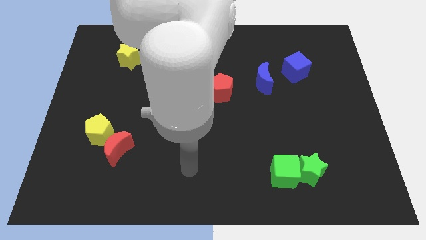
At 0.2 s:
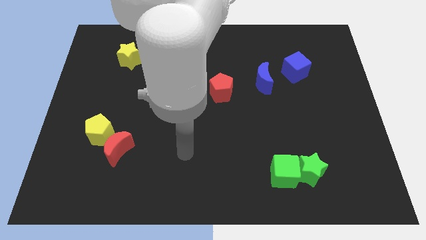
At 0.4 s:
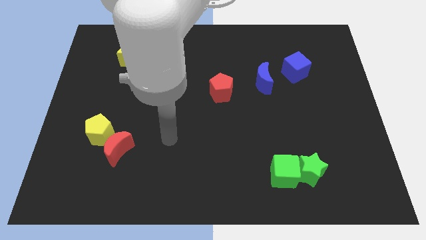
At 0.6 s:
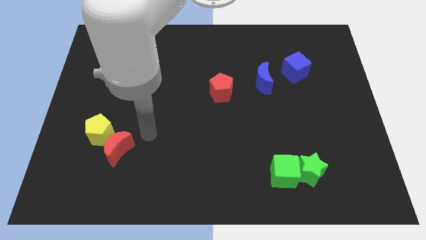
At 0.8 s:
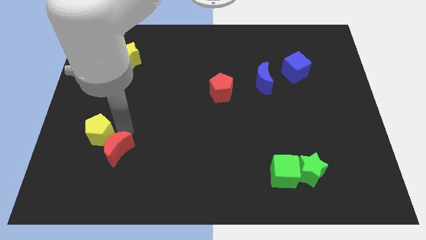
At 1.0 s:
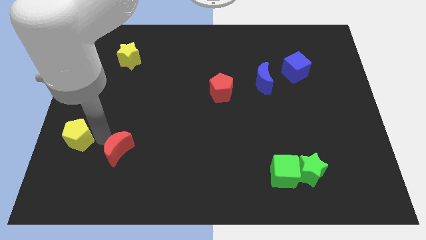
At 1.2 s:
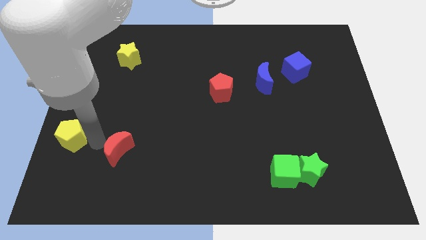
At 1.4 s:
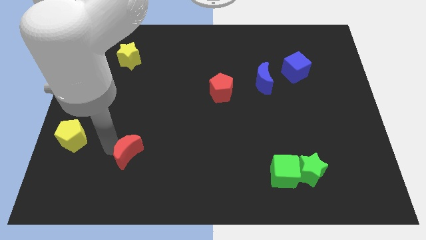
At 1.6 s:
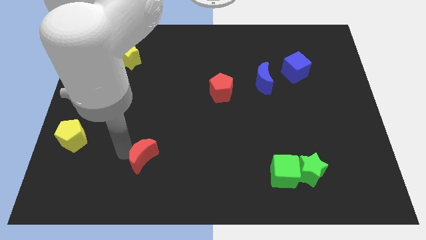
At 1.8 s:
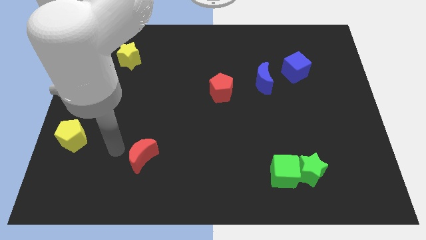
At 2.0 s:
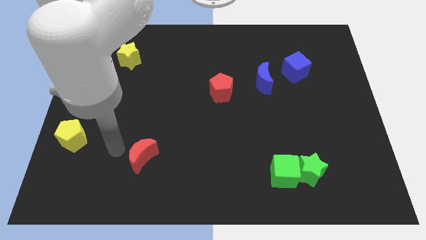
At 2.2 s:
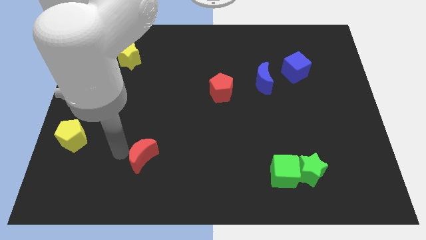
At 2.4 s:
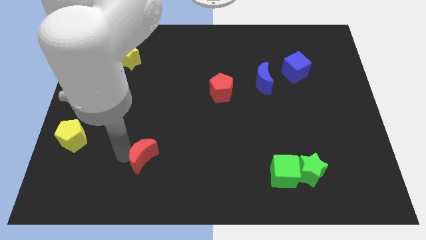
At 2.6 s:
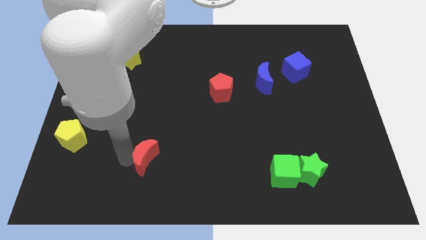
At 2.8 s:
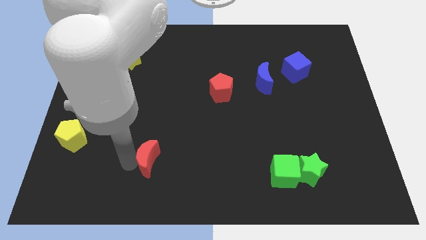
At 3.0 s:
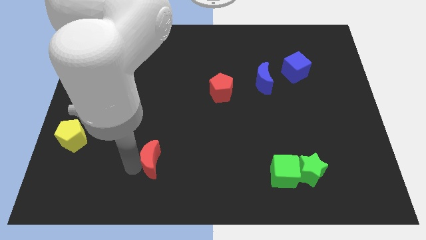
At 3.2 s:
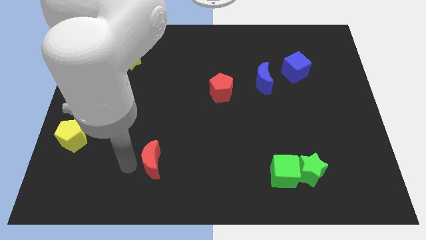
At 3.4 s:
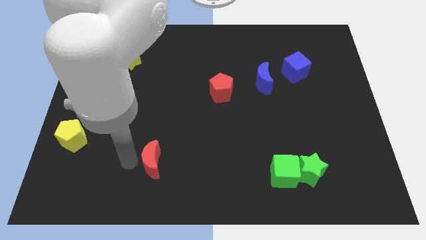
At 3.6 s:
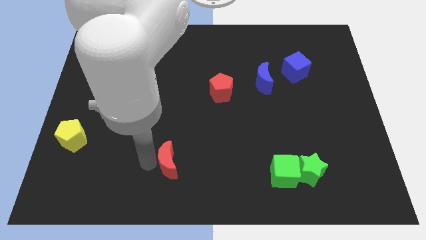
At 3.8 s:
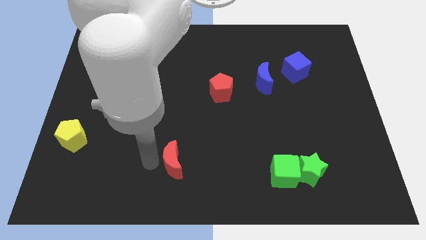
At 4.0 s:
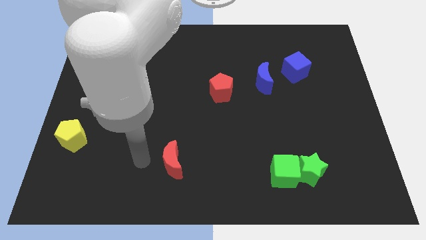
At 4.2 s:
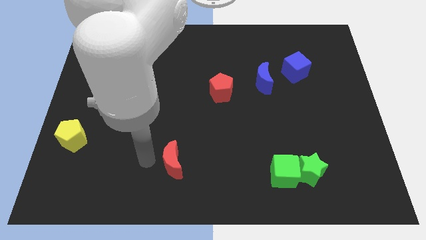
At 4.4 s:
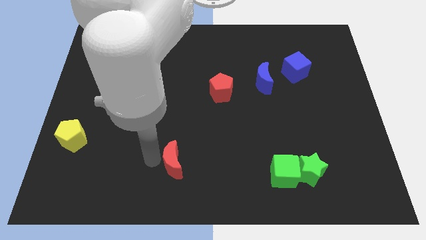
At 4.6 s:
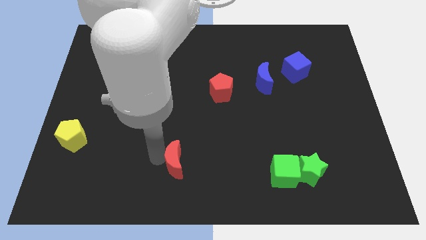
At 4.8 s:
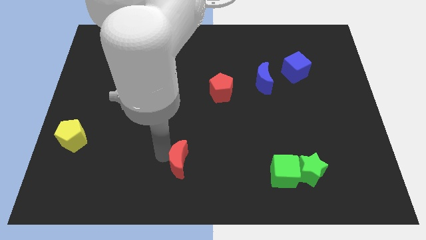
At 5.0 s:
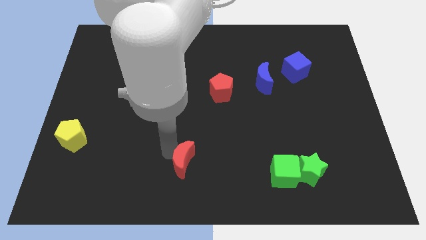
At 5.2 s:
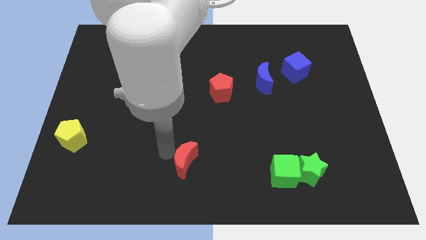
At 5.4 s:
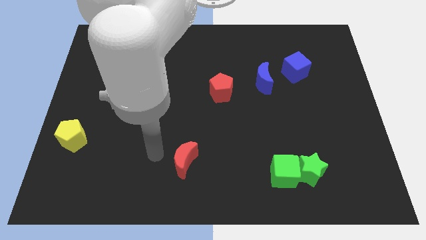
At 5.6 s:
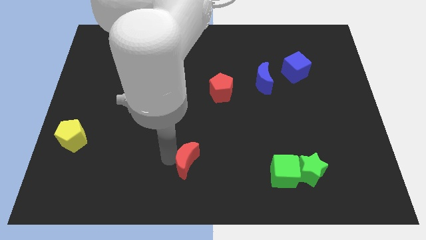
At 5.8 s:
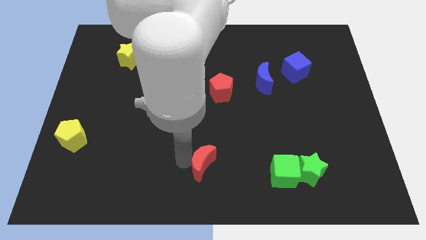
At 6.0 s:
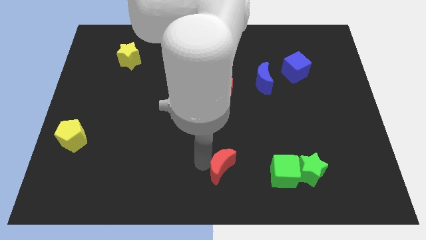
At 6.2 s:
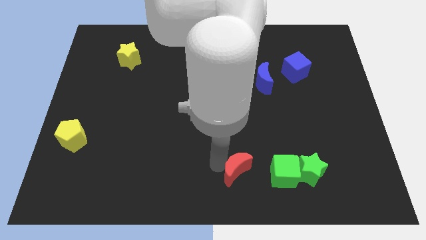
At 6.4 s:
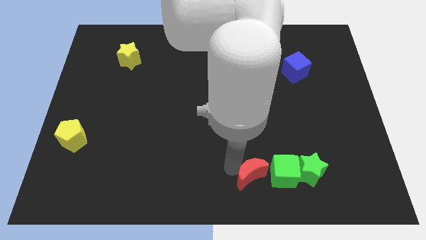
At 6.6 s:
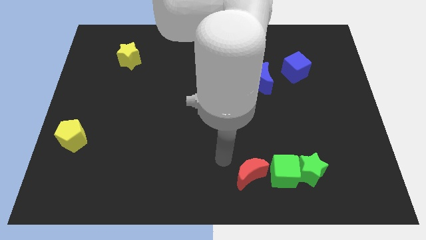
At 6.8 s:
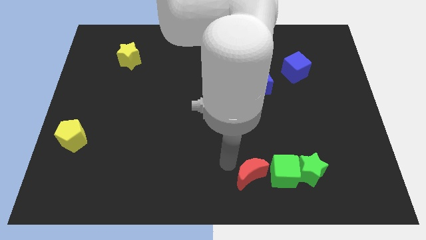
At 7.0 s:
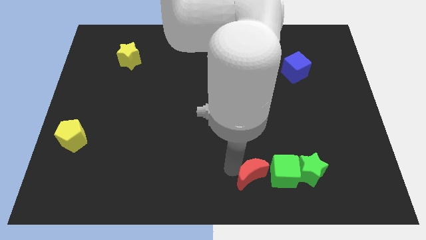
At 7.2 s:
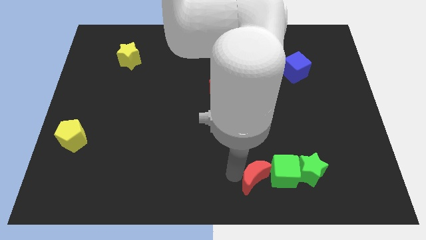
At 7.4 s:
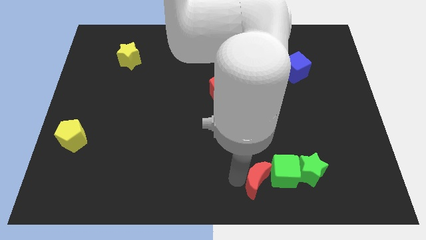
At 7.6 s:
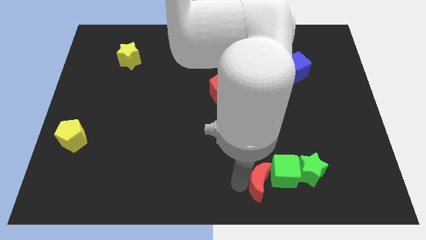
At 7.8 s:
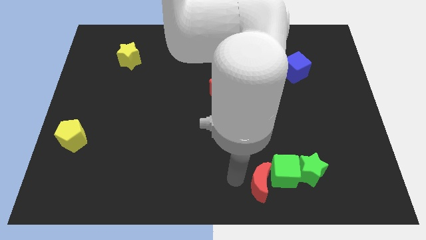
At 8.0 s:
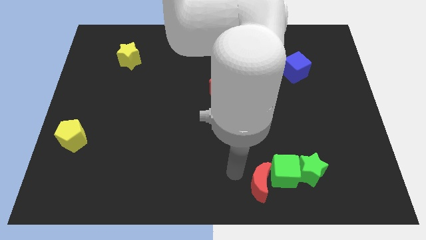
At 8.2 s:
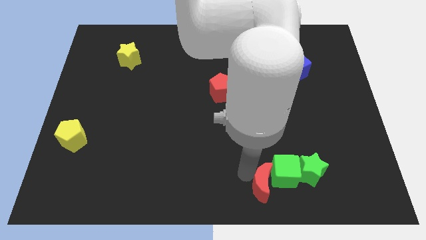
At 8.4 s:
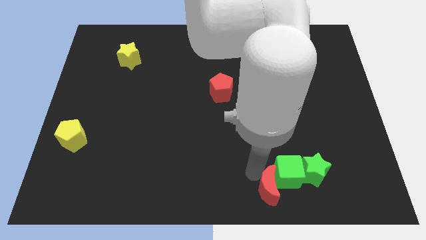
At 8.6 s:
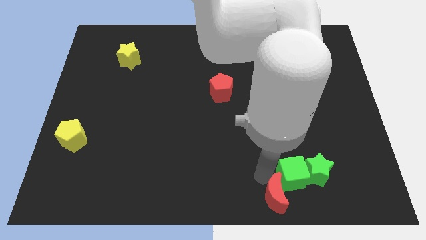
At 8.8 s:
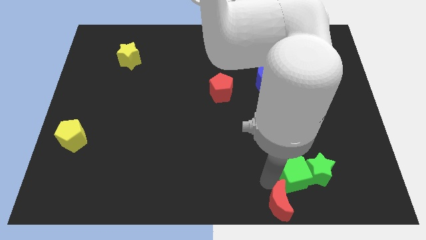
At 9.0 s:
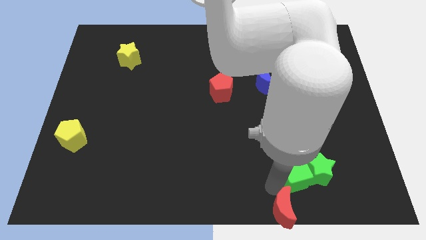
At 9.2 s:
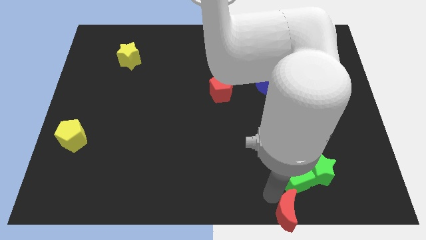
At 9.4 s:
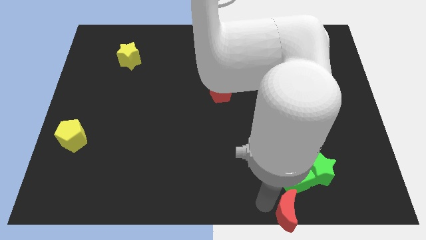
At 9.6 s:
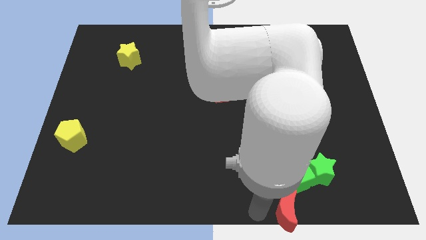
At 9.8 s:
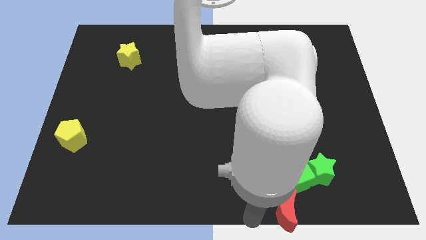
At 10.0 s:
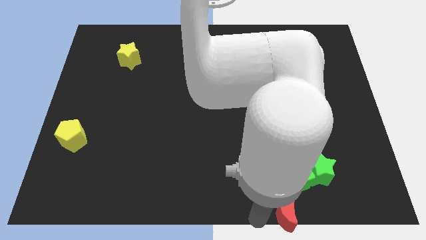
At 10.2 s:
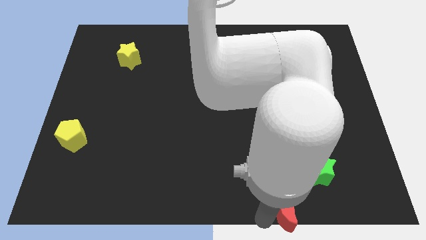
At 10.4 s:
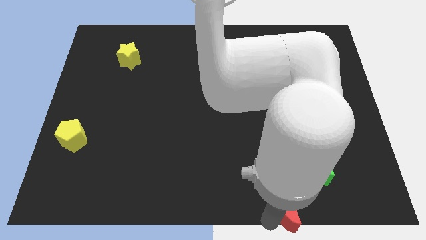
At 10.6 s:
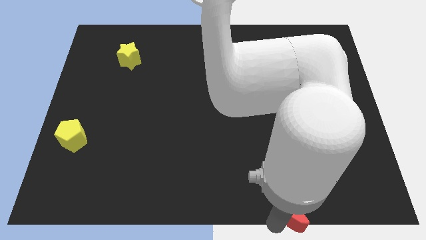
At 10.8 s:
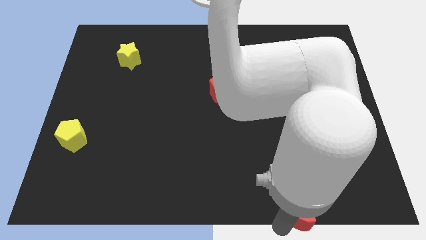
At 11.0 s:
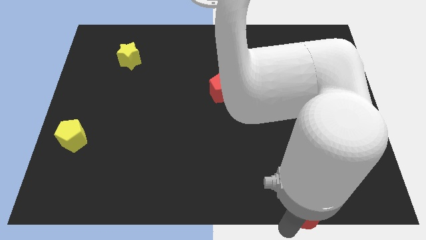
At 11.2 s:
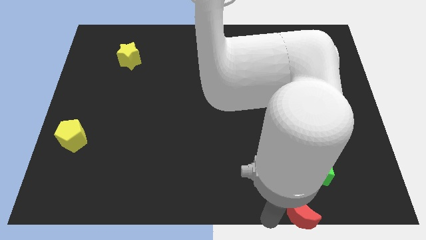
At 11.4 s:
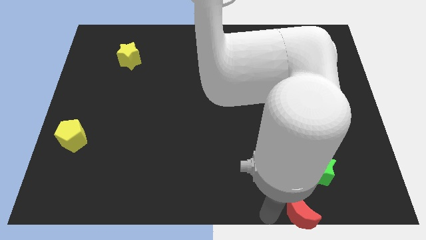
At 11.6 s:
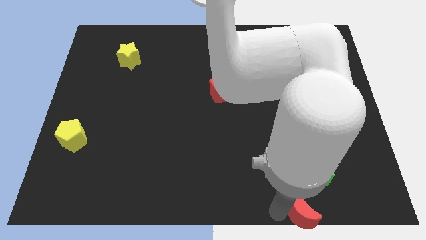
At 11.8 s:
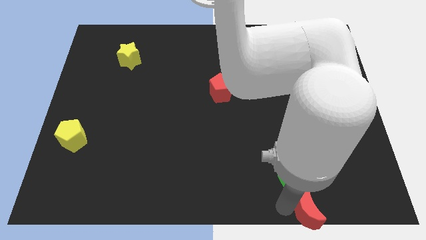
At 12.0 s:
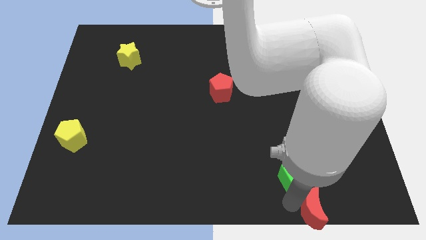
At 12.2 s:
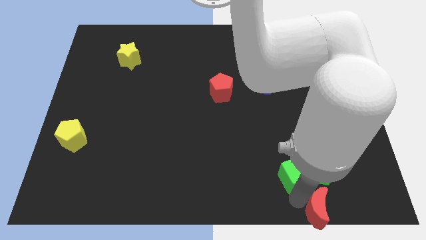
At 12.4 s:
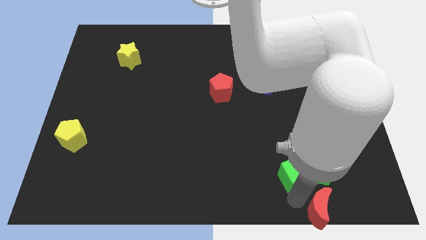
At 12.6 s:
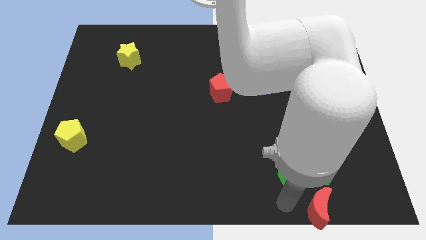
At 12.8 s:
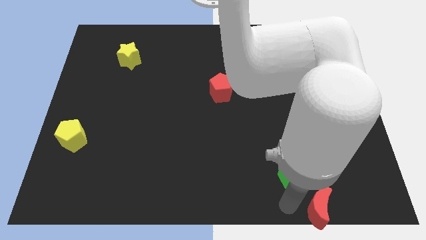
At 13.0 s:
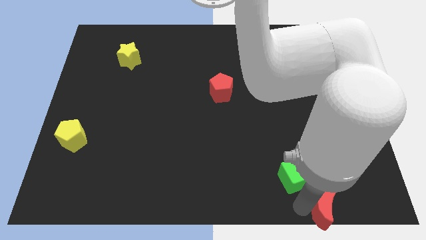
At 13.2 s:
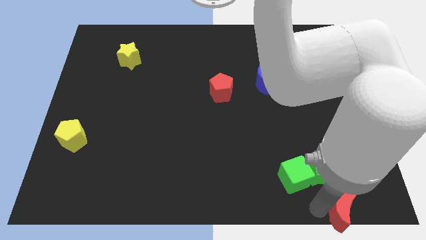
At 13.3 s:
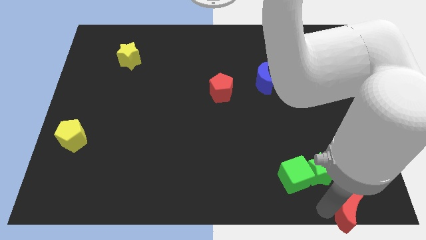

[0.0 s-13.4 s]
move the red moon to the bottom right
